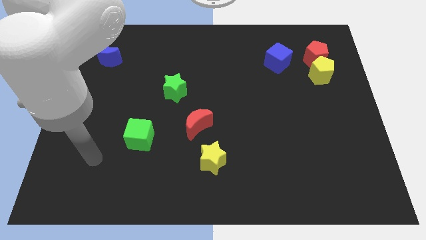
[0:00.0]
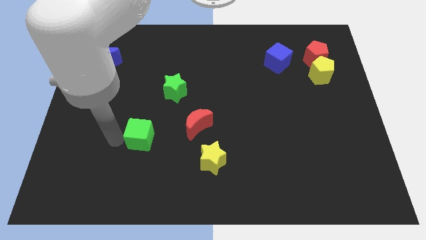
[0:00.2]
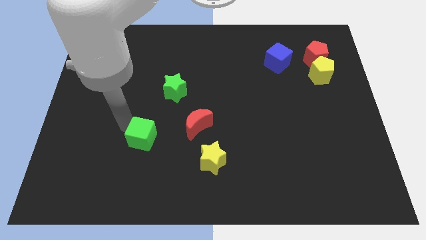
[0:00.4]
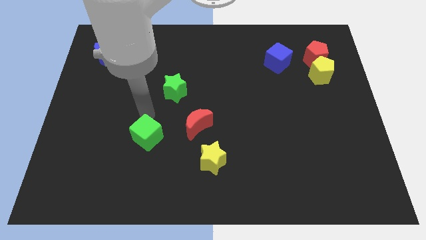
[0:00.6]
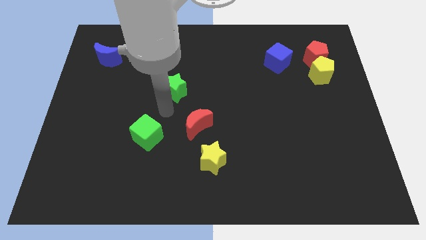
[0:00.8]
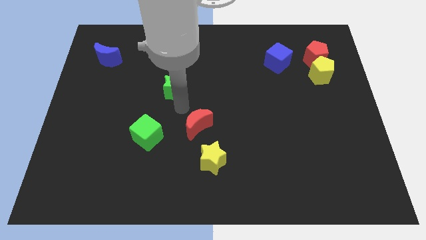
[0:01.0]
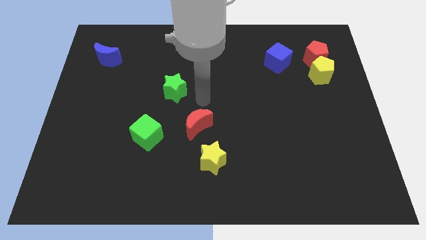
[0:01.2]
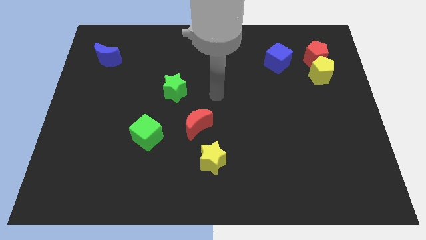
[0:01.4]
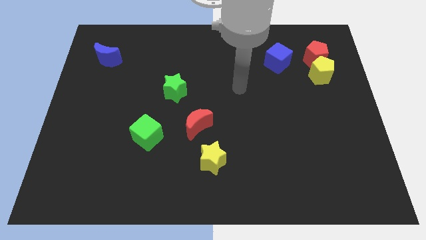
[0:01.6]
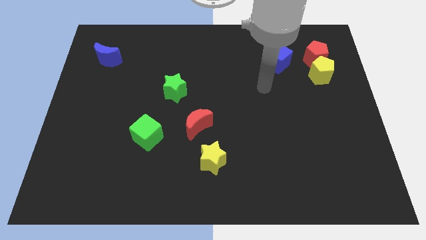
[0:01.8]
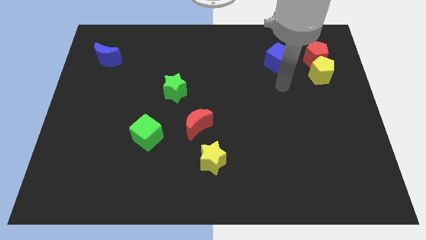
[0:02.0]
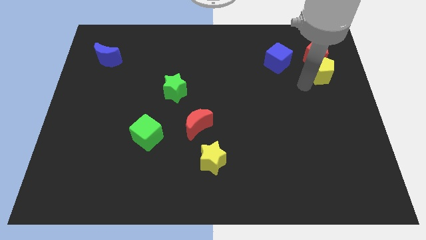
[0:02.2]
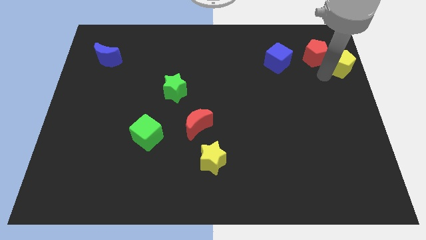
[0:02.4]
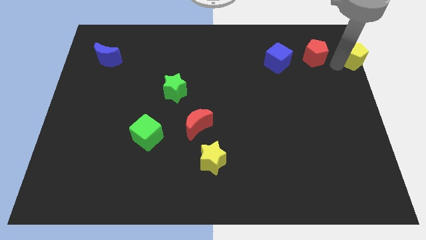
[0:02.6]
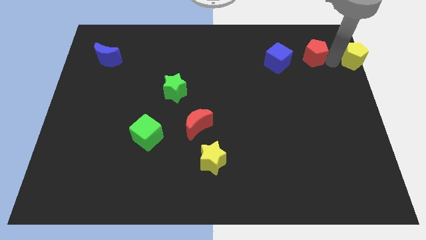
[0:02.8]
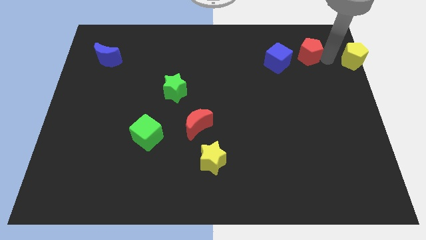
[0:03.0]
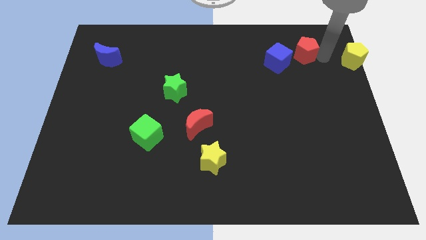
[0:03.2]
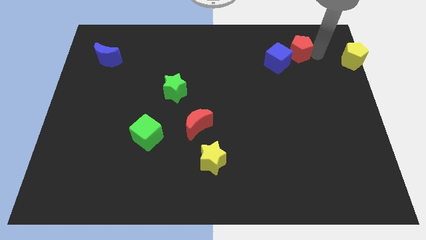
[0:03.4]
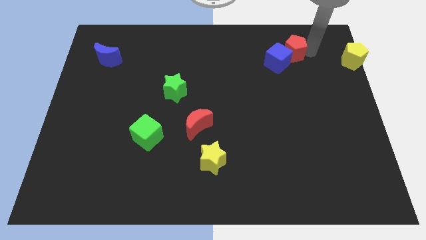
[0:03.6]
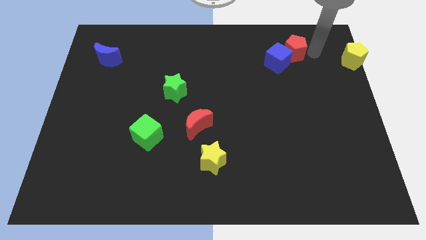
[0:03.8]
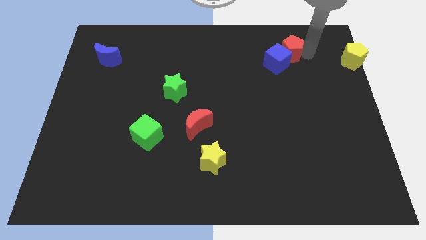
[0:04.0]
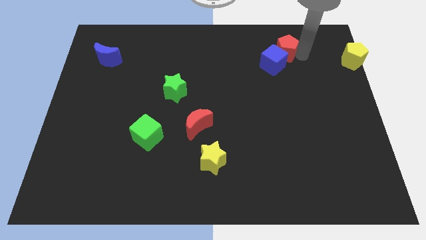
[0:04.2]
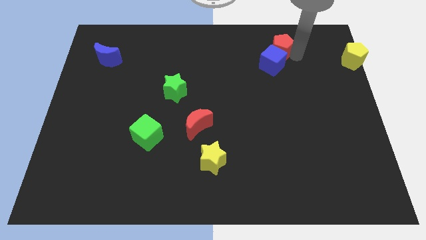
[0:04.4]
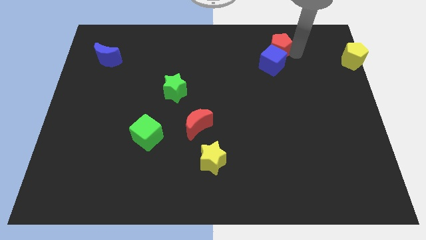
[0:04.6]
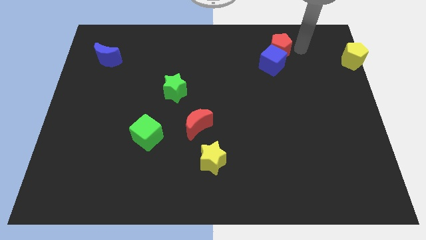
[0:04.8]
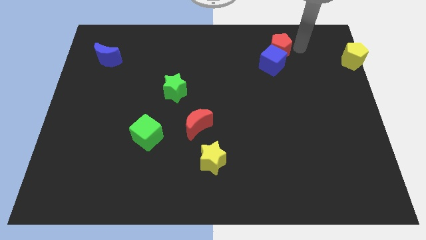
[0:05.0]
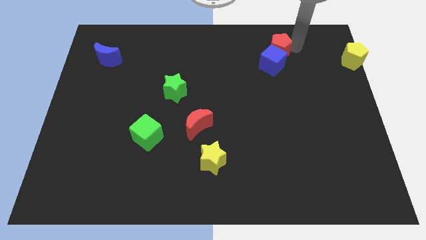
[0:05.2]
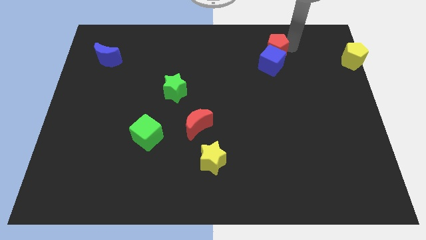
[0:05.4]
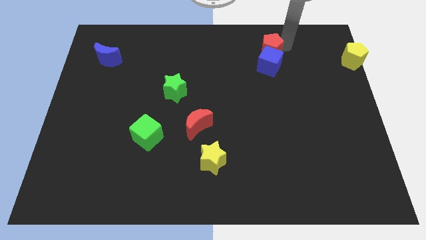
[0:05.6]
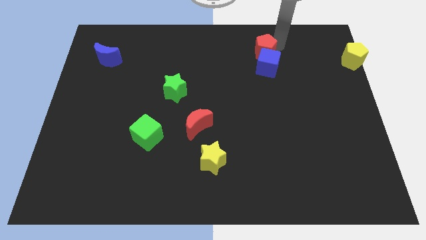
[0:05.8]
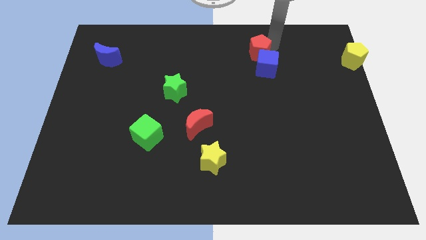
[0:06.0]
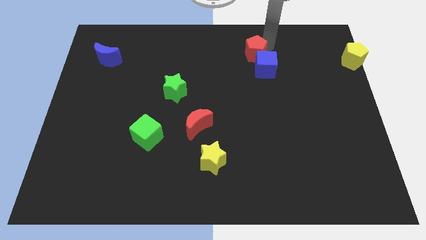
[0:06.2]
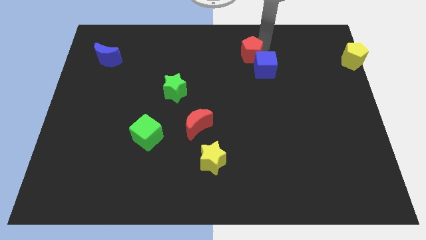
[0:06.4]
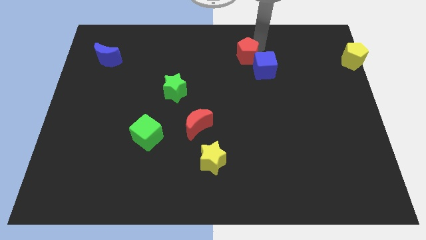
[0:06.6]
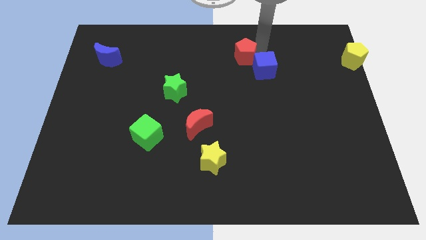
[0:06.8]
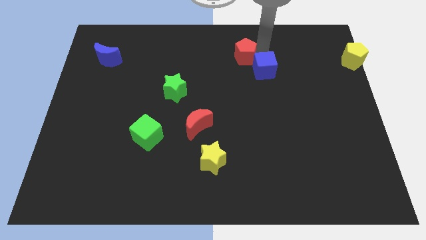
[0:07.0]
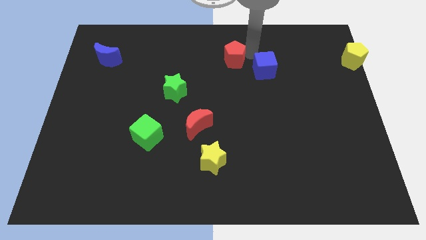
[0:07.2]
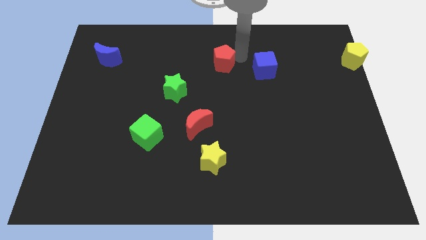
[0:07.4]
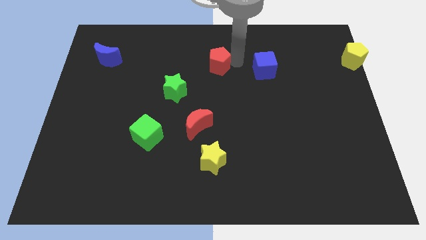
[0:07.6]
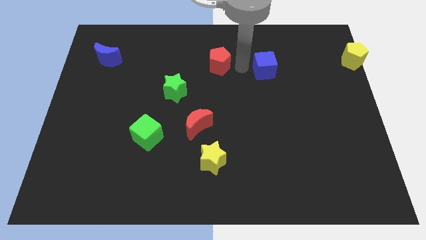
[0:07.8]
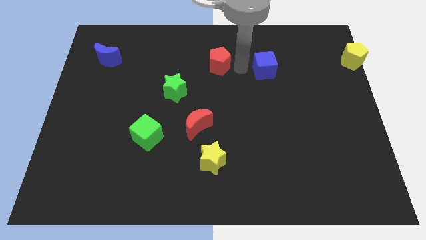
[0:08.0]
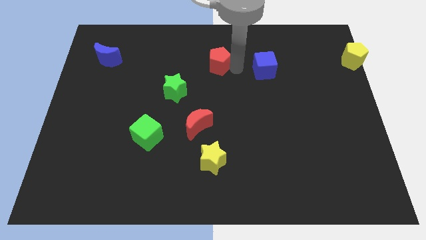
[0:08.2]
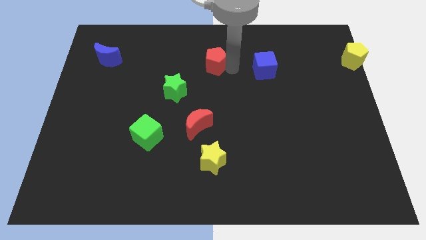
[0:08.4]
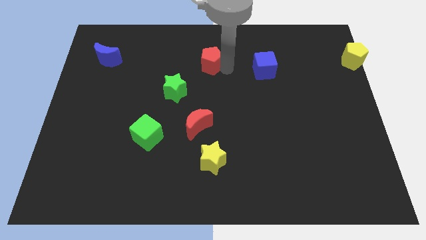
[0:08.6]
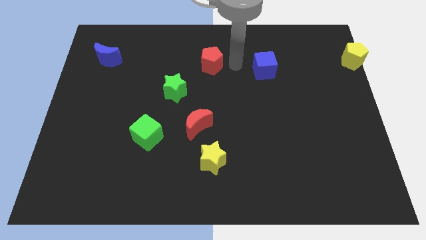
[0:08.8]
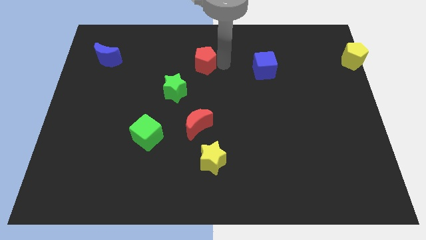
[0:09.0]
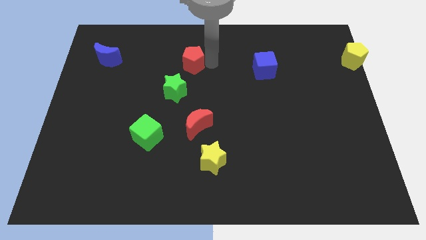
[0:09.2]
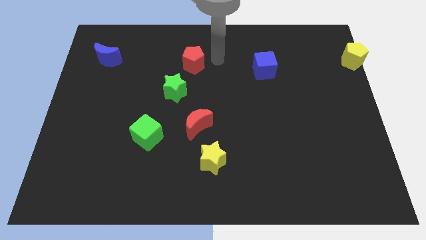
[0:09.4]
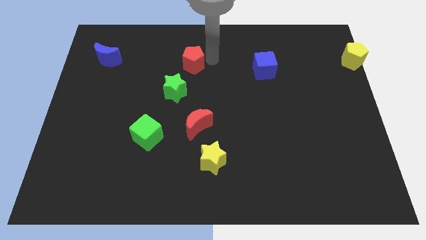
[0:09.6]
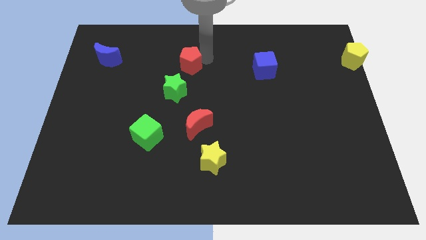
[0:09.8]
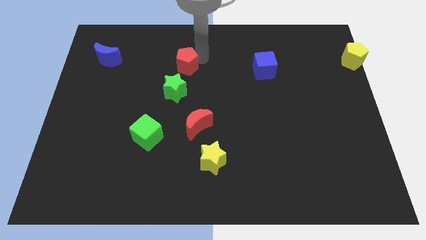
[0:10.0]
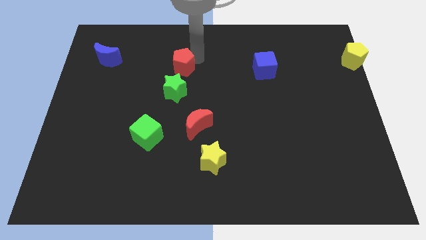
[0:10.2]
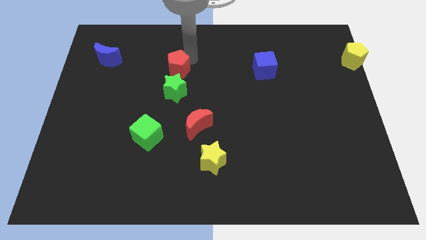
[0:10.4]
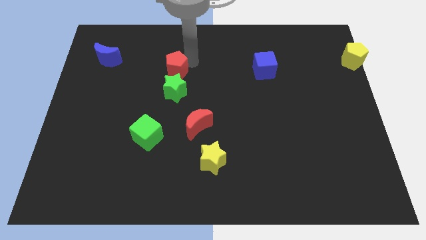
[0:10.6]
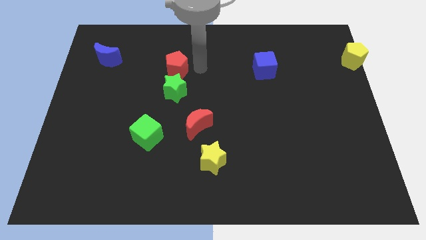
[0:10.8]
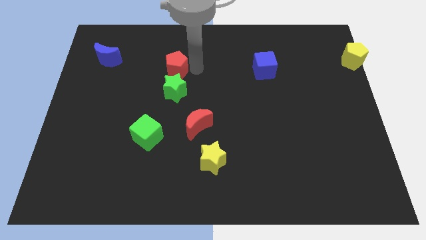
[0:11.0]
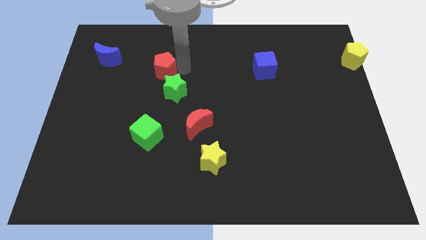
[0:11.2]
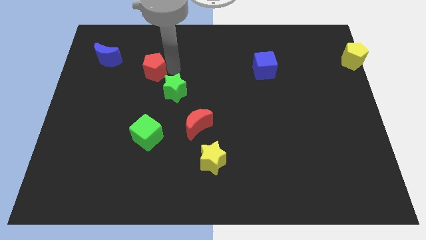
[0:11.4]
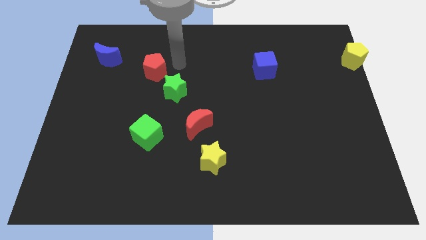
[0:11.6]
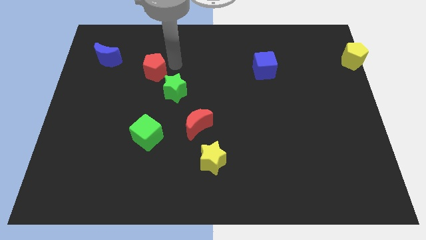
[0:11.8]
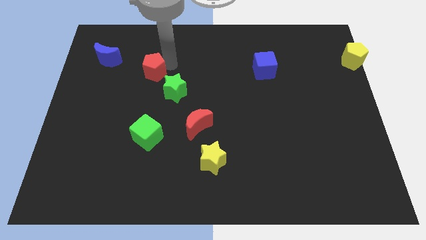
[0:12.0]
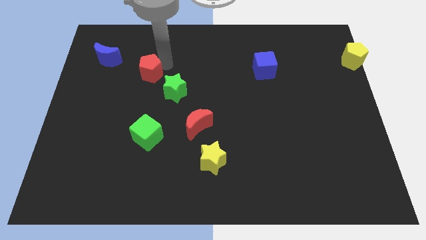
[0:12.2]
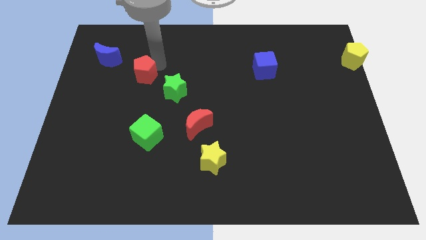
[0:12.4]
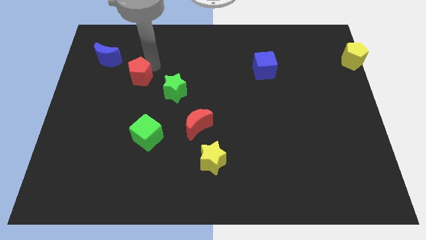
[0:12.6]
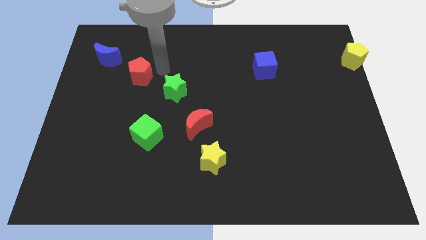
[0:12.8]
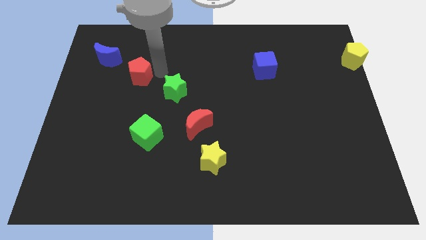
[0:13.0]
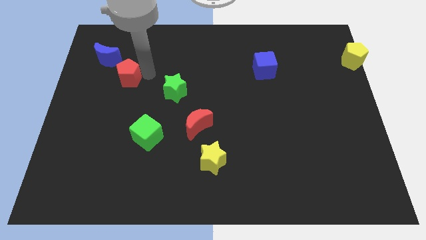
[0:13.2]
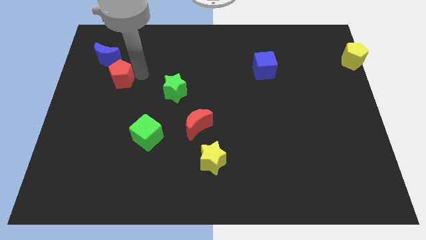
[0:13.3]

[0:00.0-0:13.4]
slide the red pentagon below the blue moon

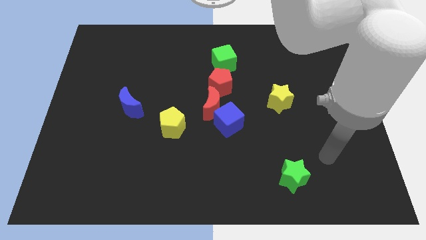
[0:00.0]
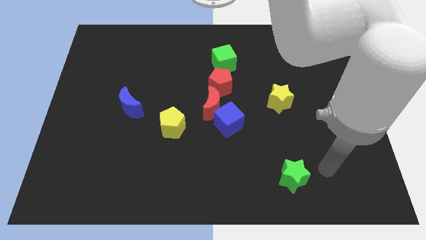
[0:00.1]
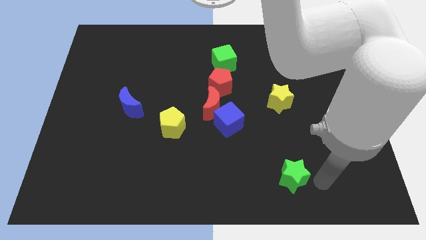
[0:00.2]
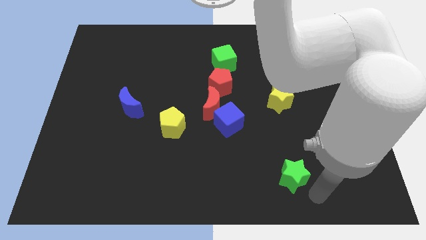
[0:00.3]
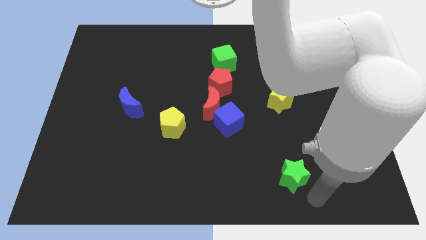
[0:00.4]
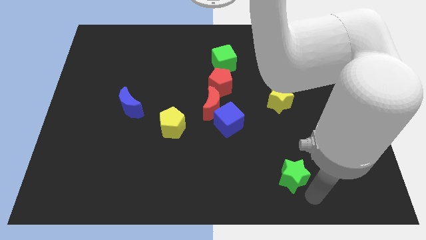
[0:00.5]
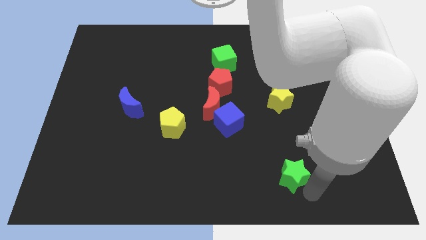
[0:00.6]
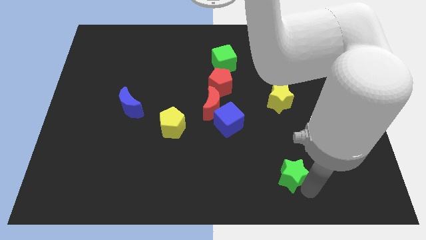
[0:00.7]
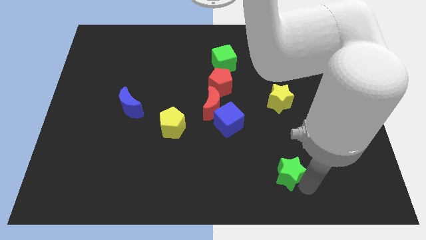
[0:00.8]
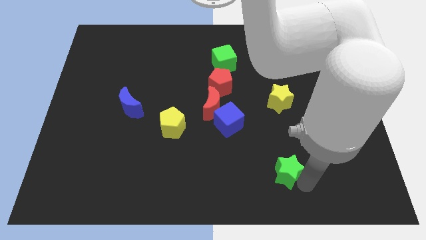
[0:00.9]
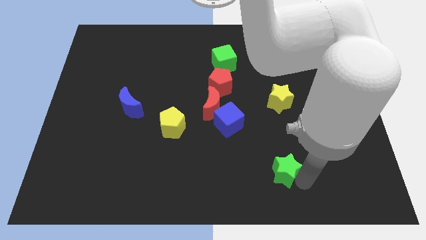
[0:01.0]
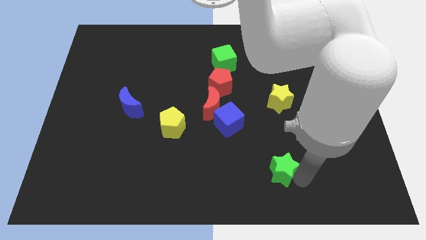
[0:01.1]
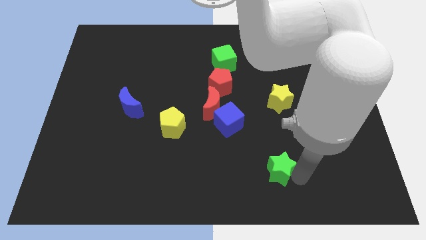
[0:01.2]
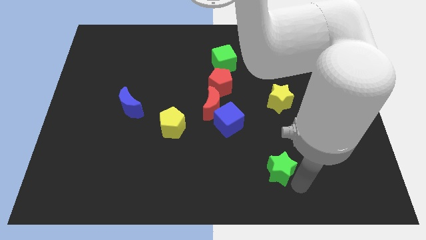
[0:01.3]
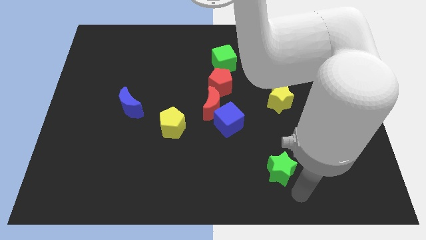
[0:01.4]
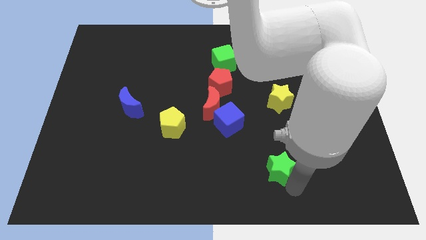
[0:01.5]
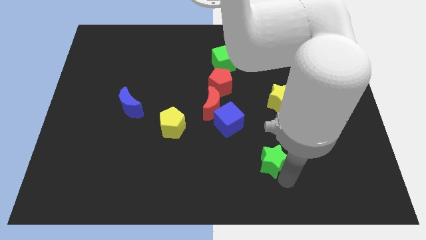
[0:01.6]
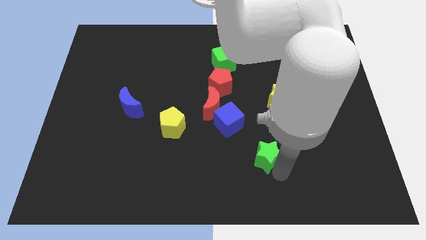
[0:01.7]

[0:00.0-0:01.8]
push the green star to the bottom right side of the blue cube
